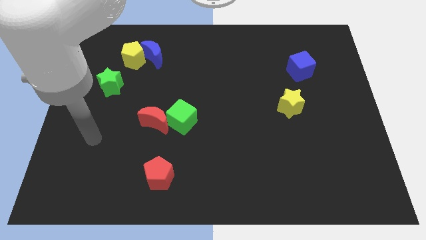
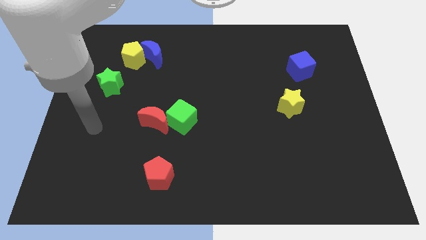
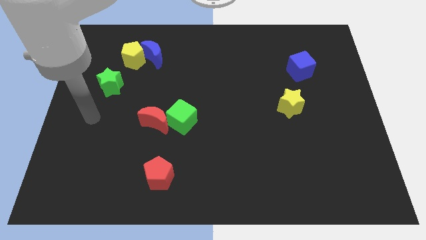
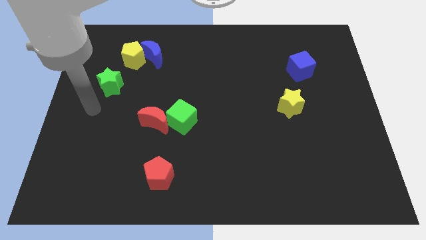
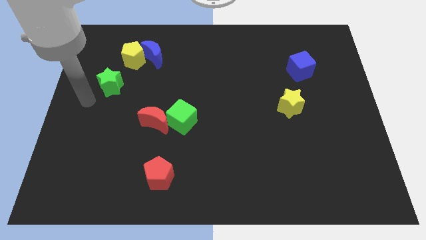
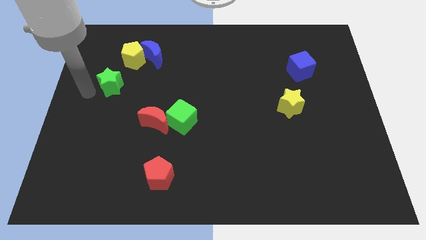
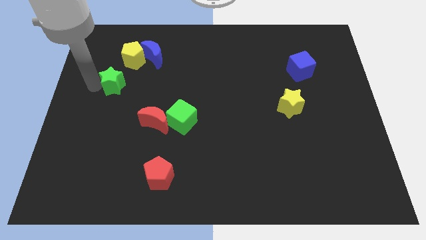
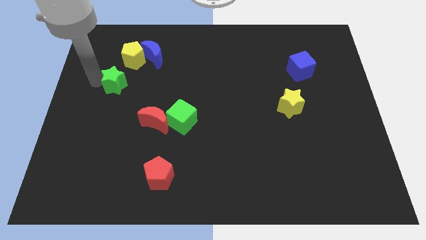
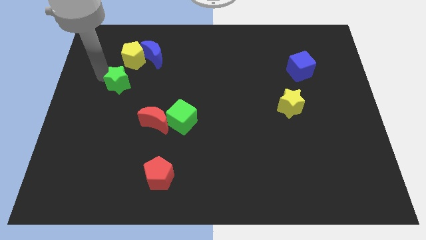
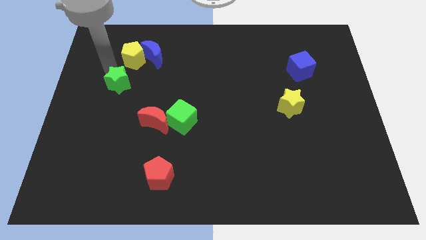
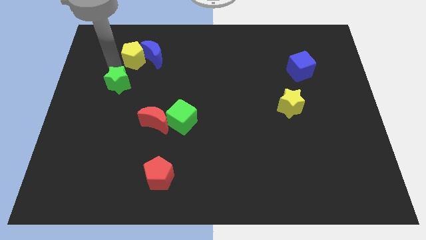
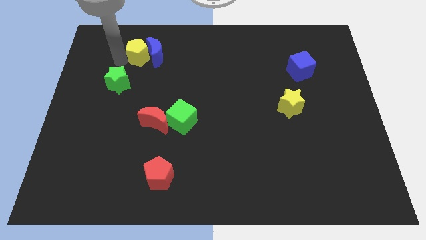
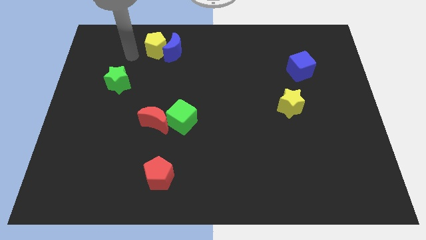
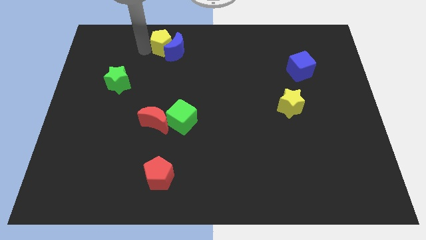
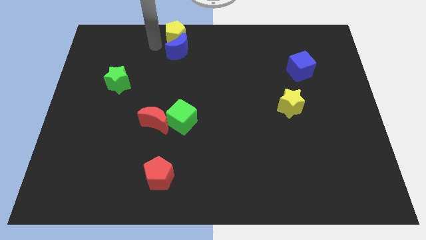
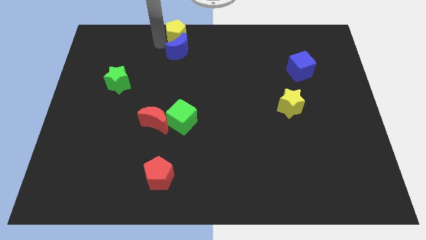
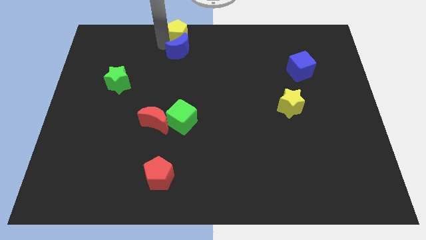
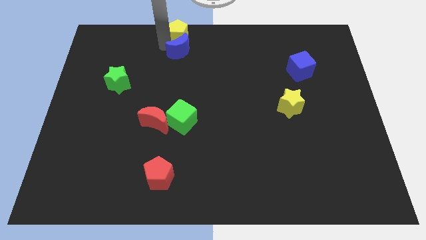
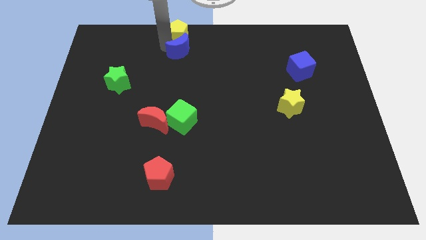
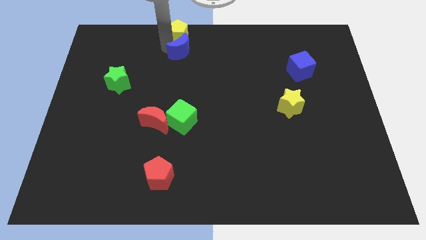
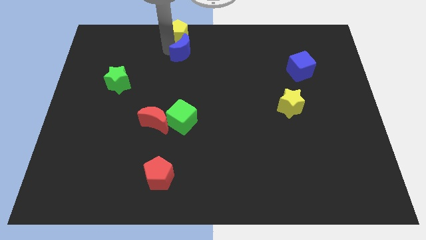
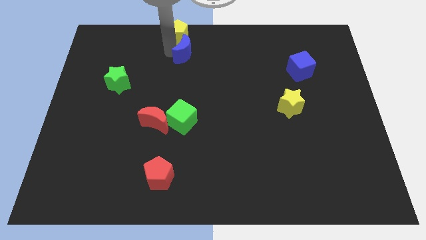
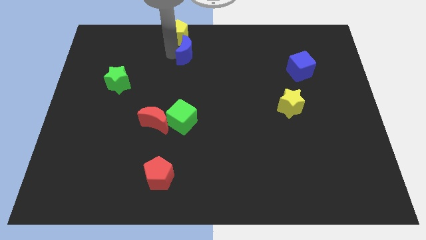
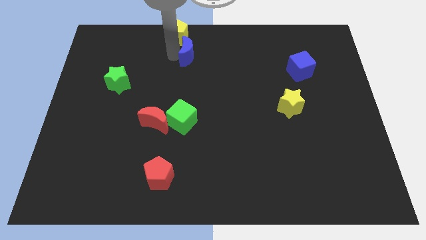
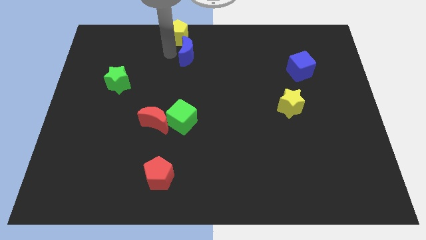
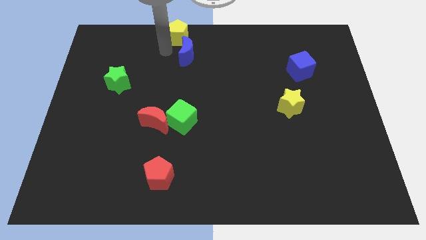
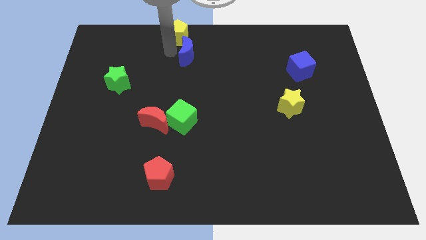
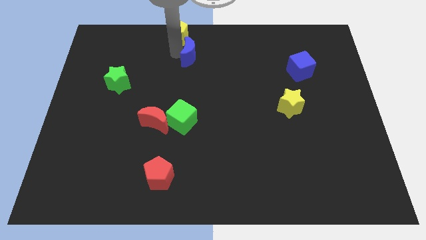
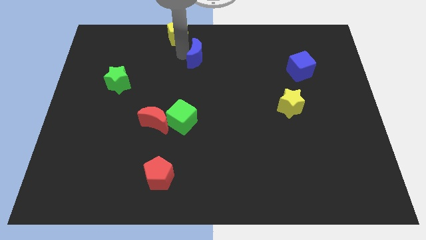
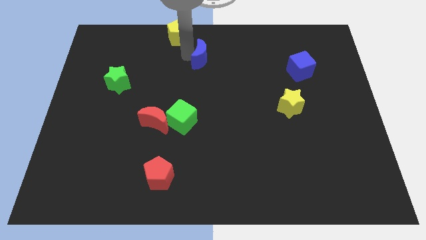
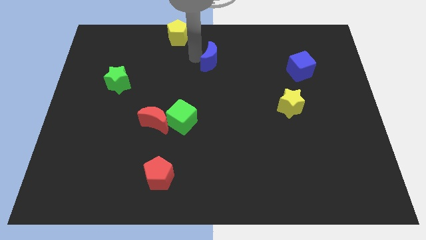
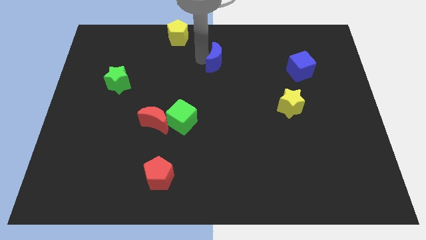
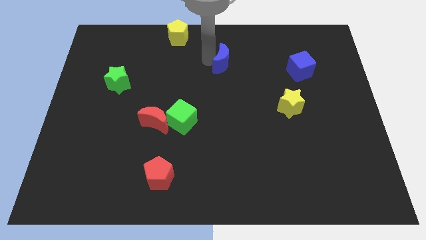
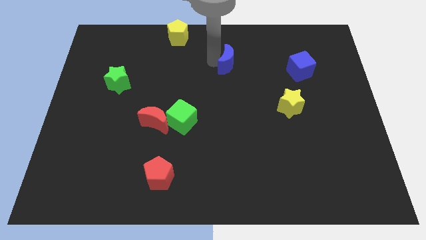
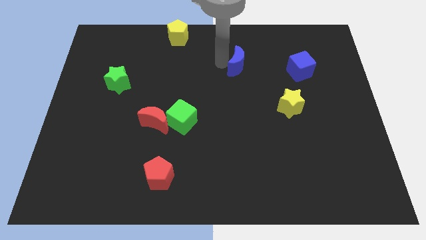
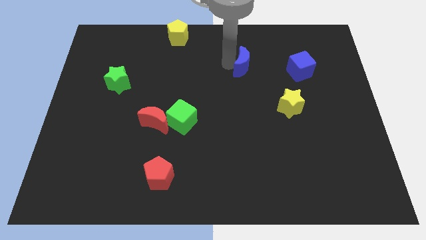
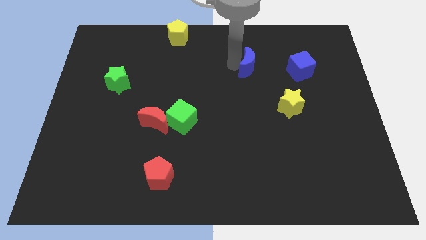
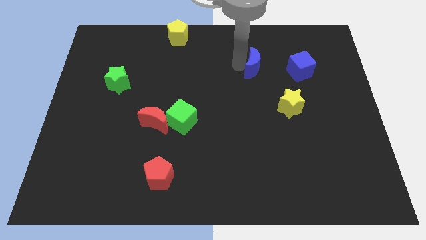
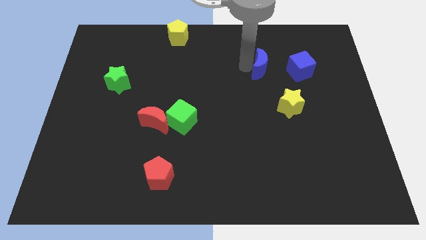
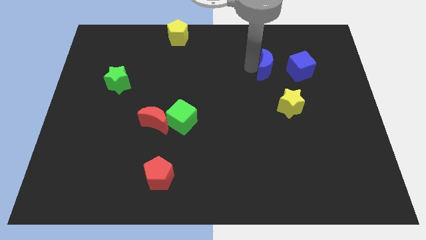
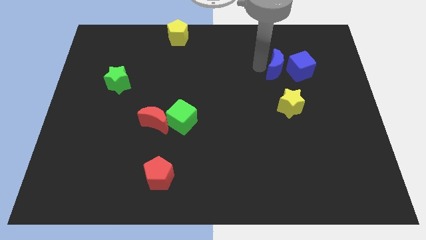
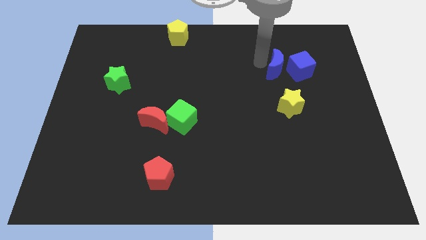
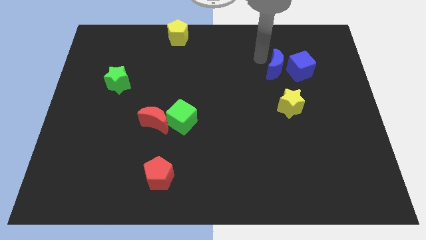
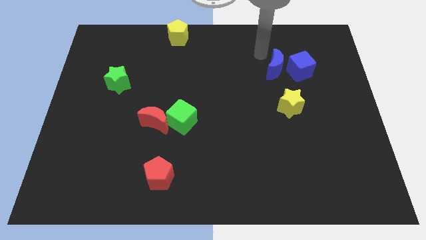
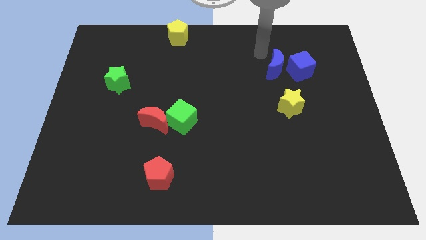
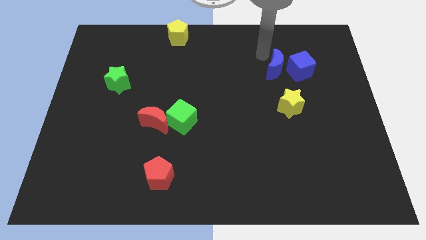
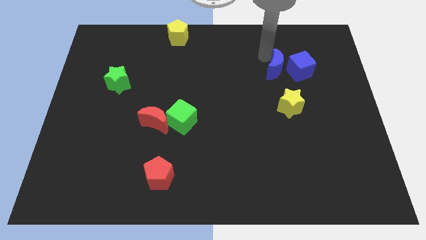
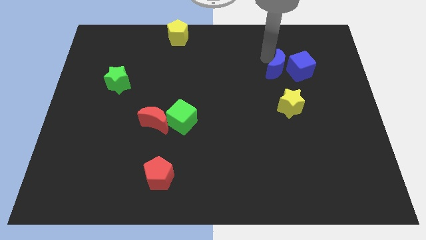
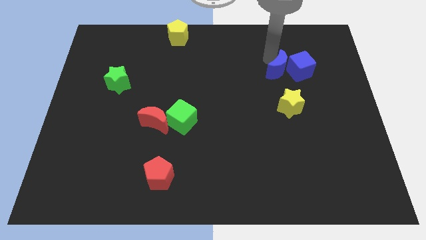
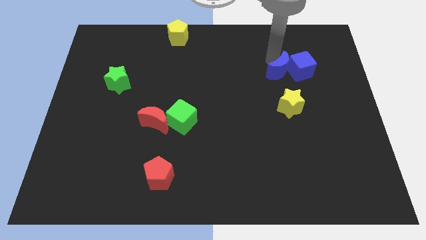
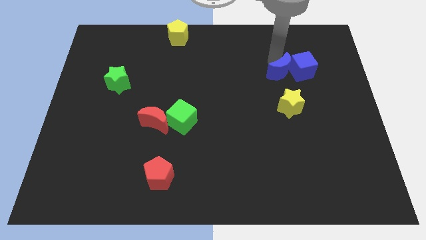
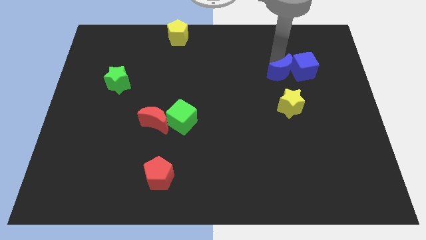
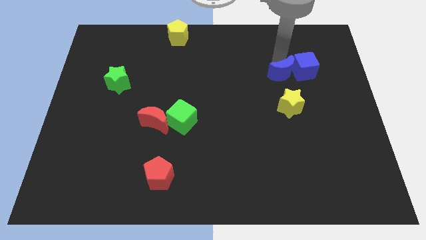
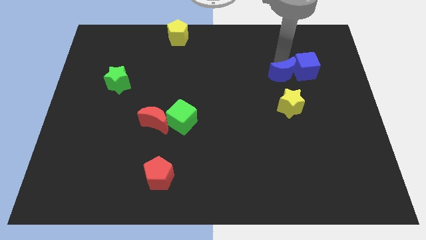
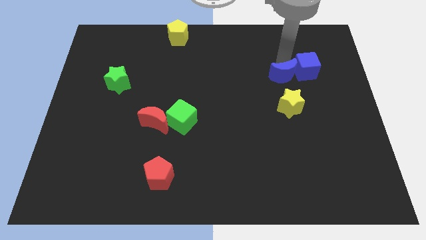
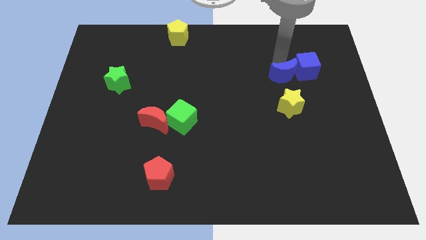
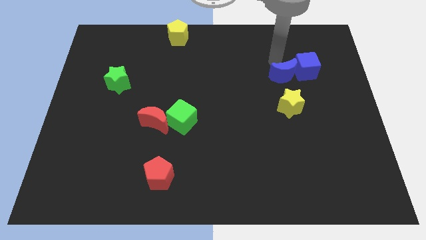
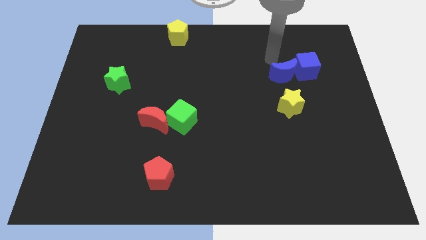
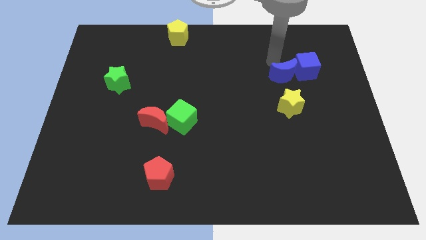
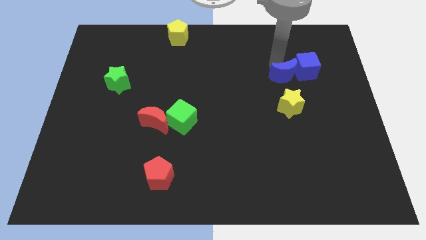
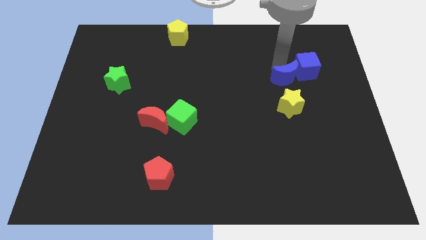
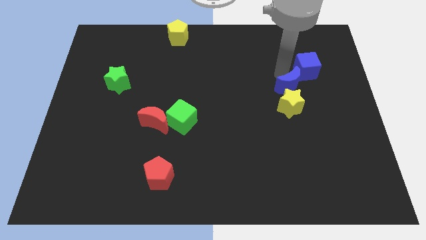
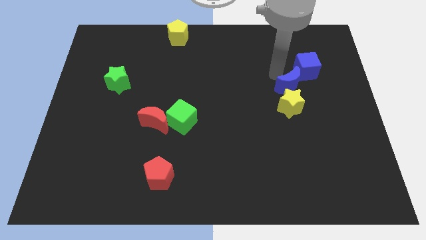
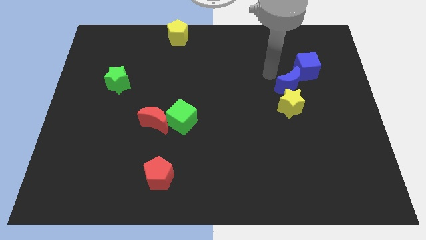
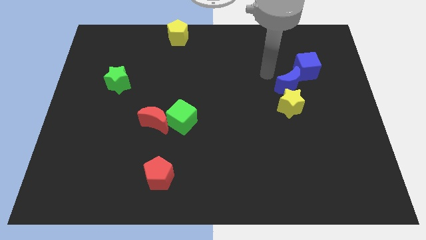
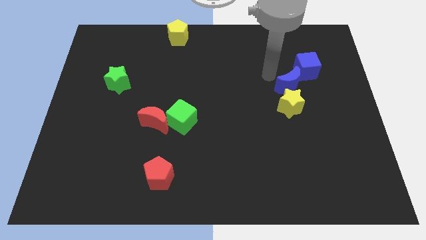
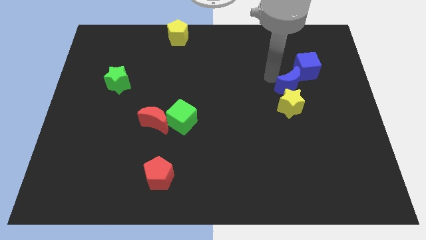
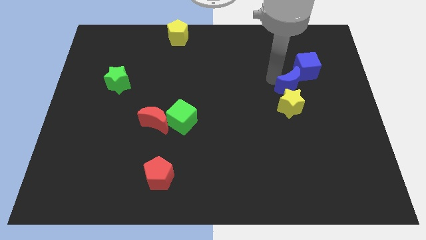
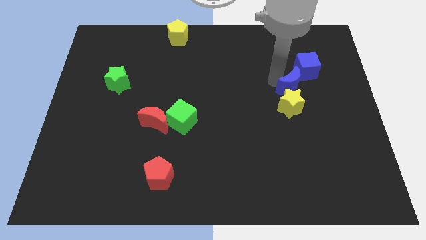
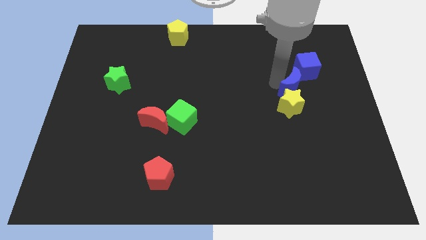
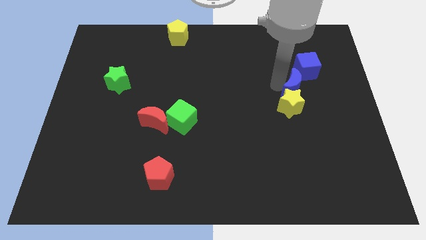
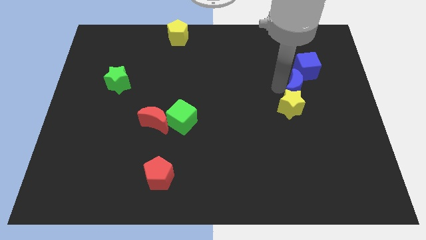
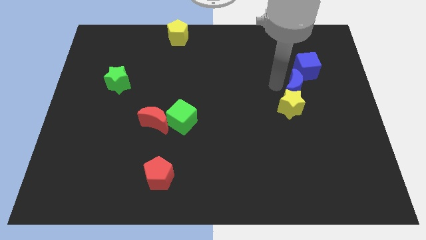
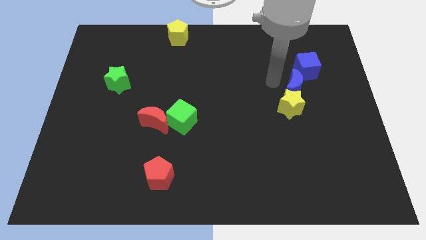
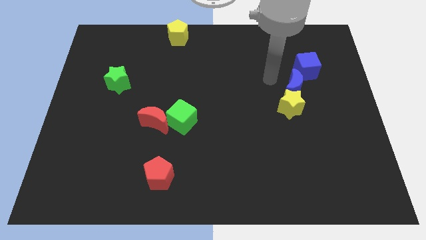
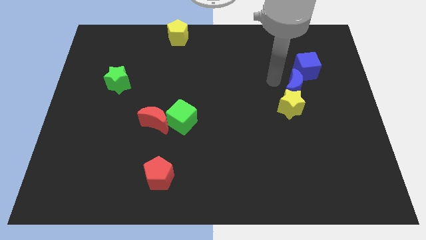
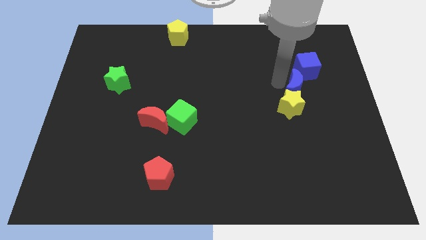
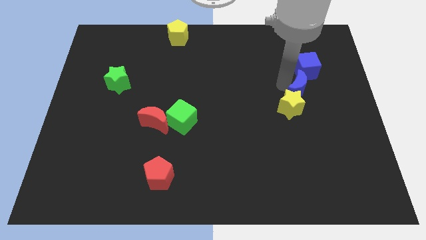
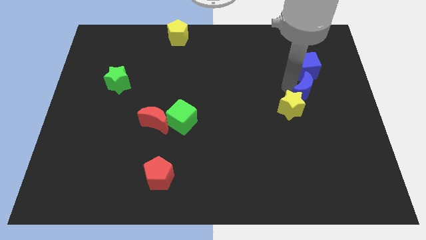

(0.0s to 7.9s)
move the blue moon to the right of the yellow star
